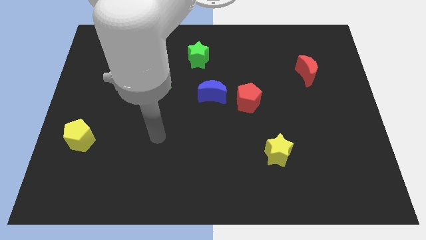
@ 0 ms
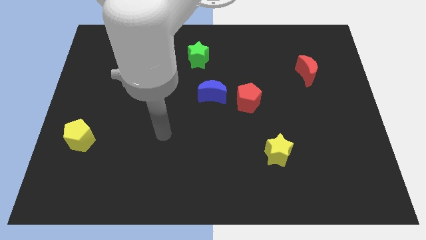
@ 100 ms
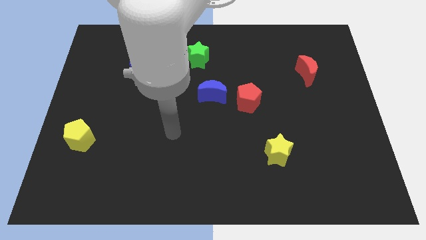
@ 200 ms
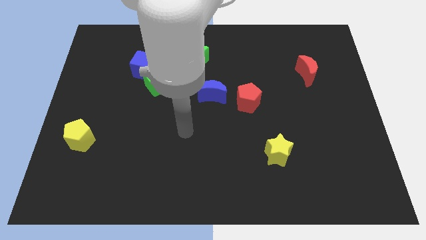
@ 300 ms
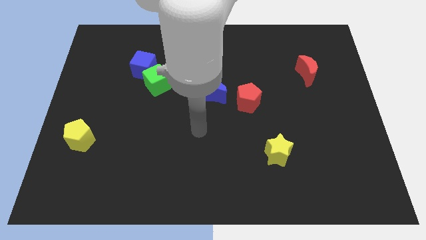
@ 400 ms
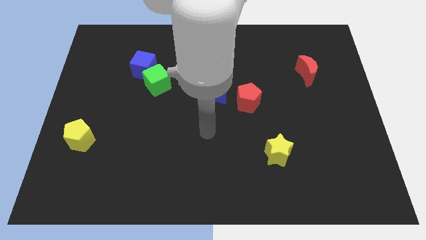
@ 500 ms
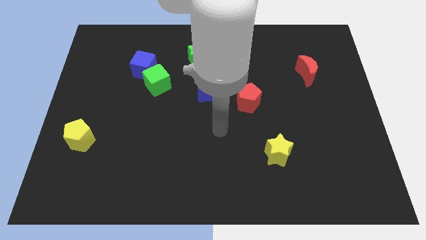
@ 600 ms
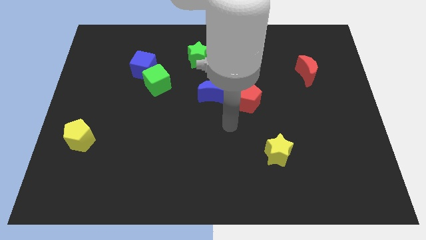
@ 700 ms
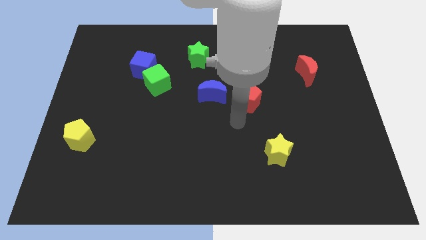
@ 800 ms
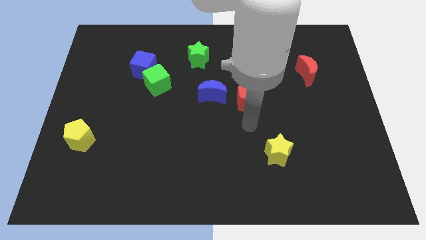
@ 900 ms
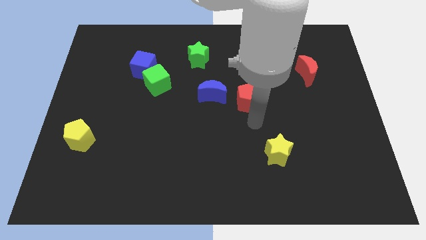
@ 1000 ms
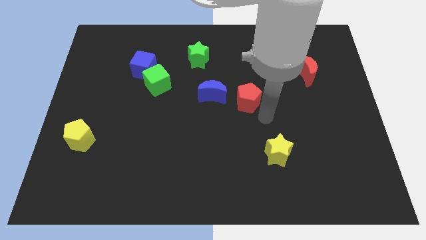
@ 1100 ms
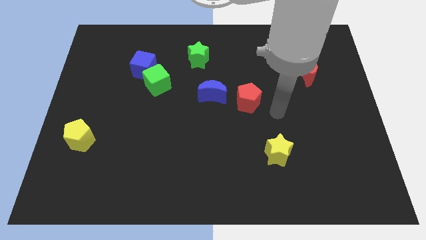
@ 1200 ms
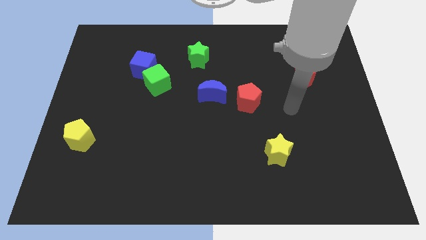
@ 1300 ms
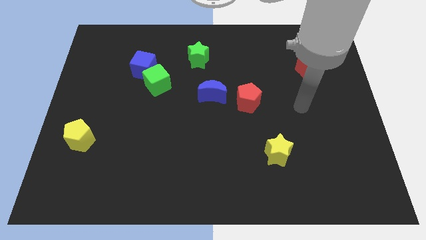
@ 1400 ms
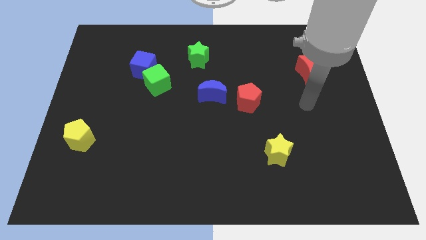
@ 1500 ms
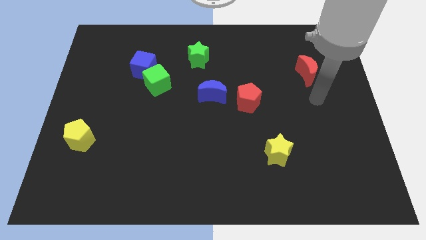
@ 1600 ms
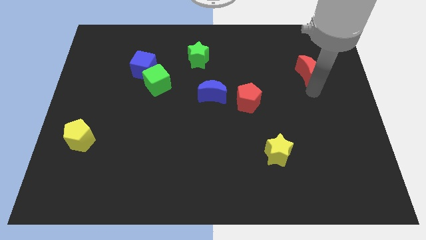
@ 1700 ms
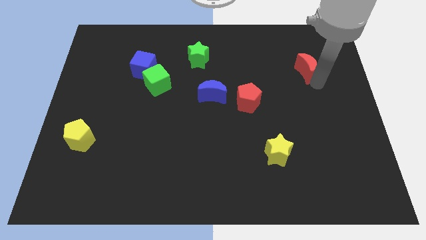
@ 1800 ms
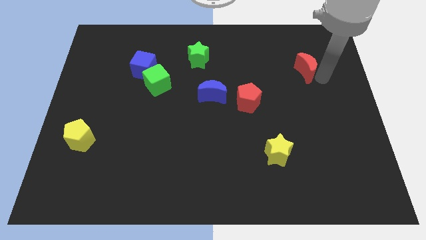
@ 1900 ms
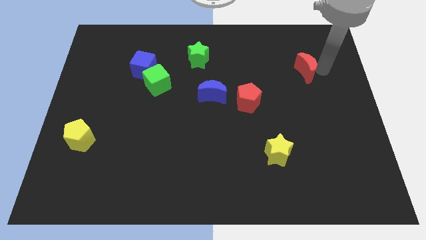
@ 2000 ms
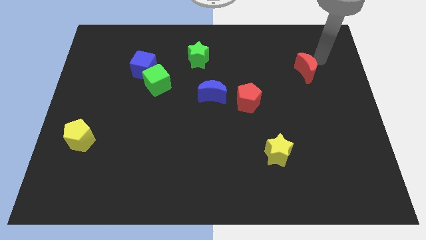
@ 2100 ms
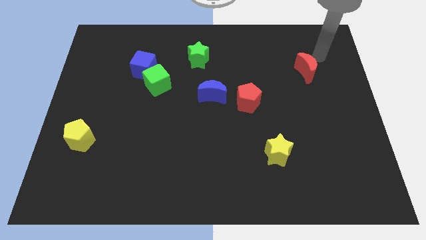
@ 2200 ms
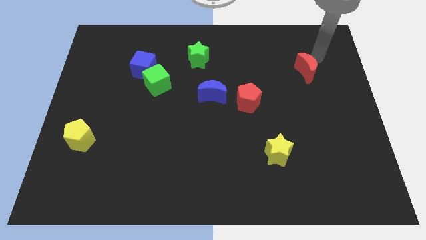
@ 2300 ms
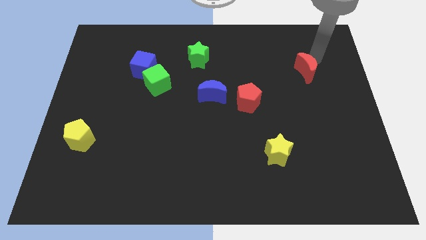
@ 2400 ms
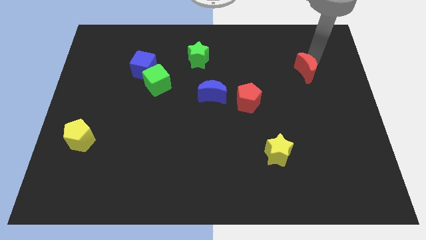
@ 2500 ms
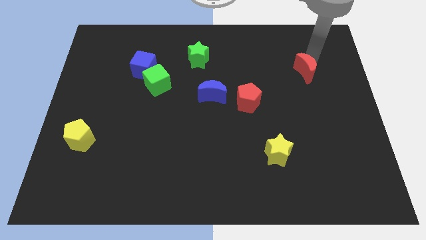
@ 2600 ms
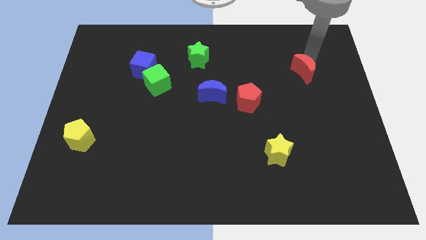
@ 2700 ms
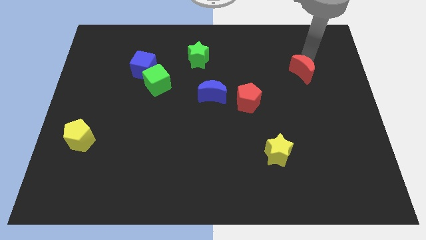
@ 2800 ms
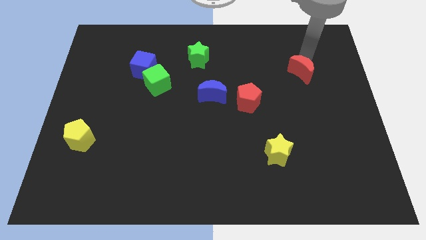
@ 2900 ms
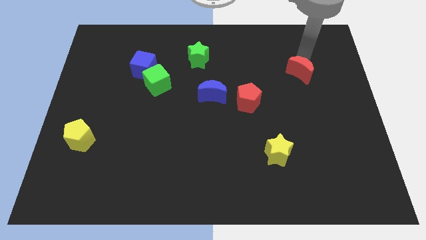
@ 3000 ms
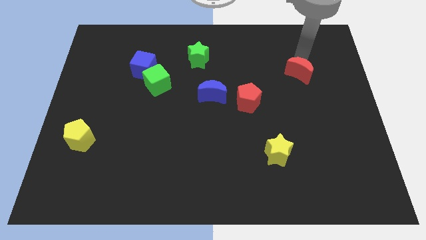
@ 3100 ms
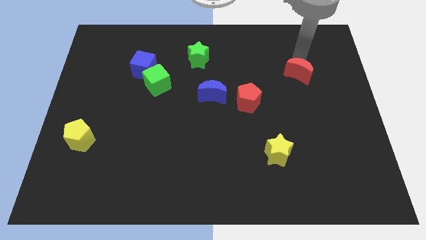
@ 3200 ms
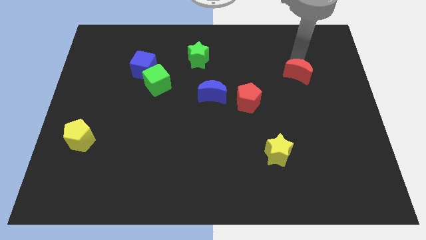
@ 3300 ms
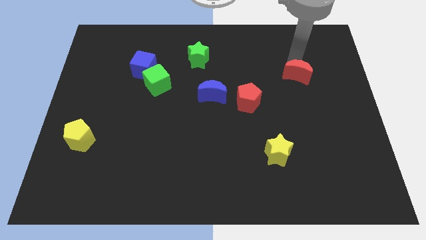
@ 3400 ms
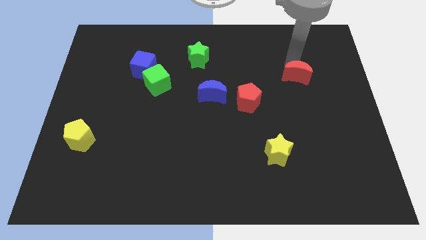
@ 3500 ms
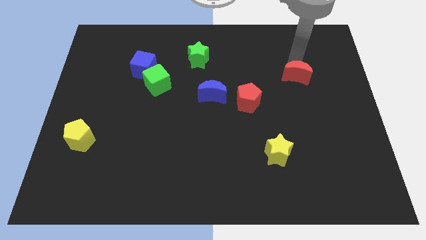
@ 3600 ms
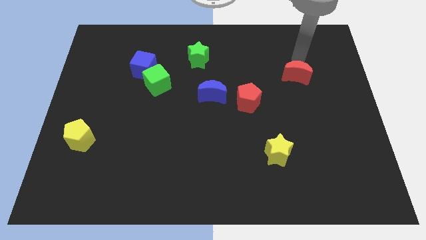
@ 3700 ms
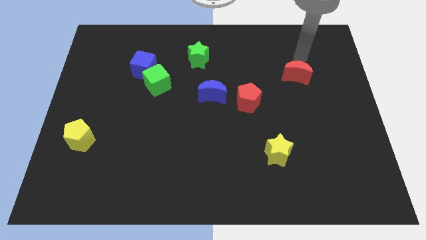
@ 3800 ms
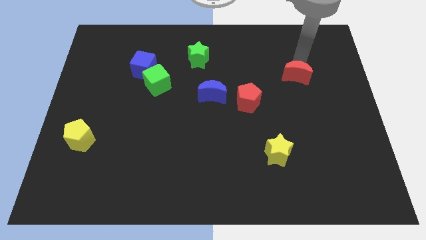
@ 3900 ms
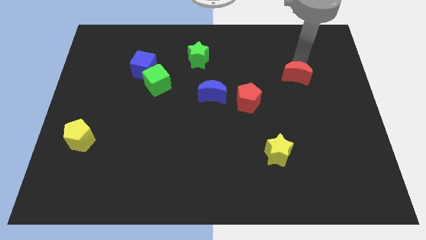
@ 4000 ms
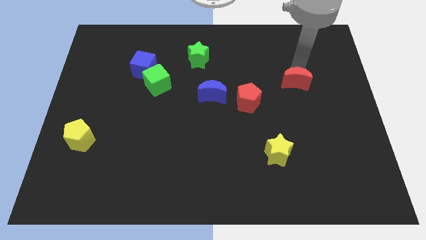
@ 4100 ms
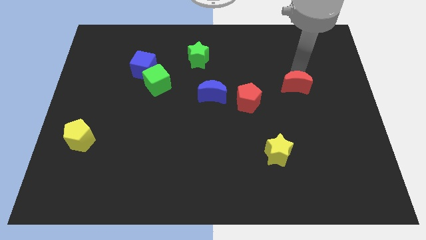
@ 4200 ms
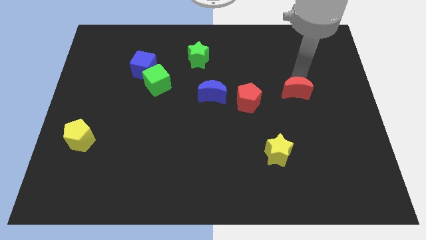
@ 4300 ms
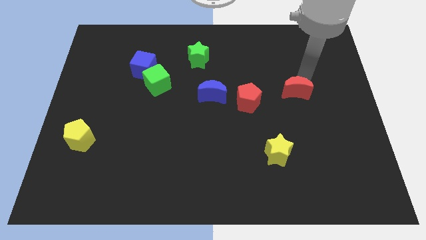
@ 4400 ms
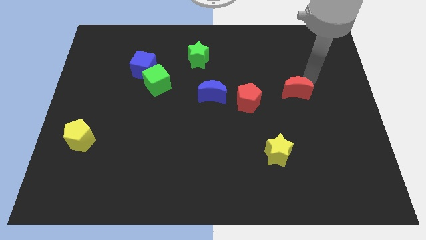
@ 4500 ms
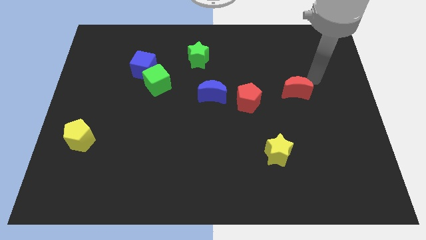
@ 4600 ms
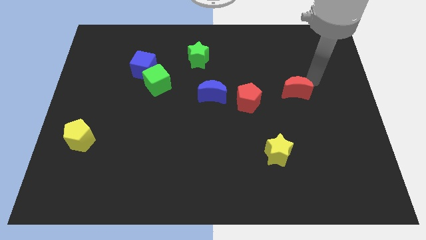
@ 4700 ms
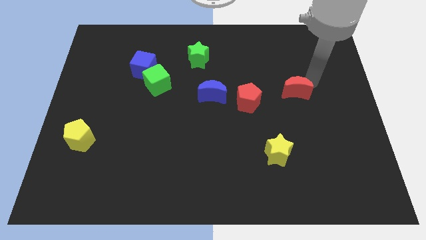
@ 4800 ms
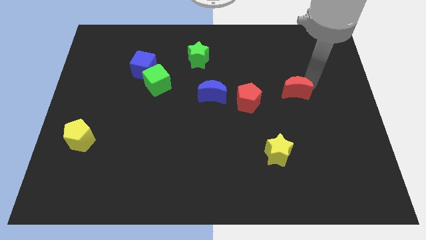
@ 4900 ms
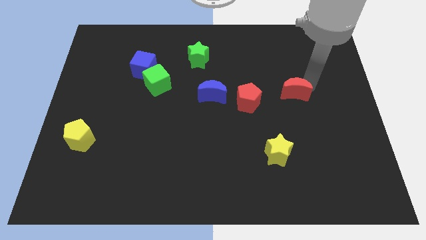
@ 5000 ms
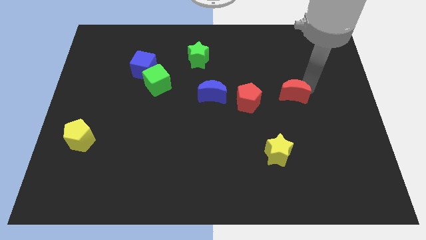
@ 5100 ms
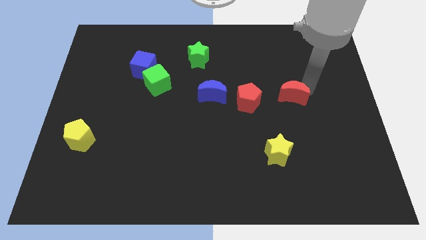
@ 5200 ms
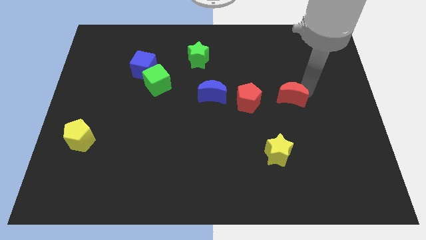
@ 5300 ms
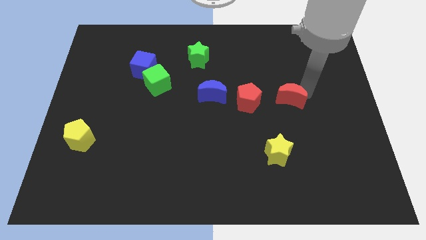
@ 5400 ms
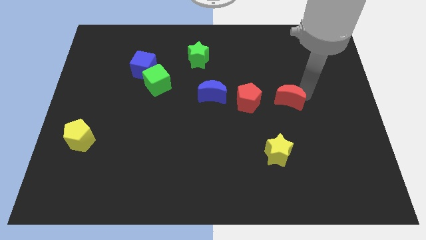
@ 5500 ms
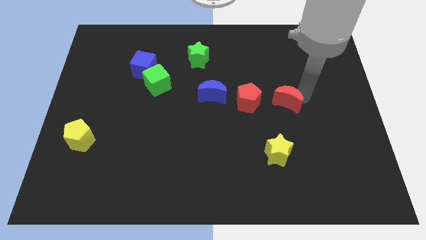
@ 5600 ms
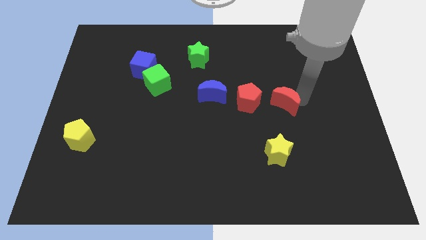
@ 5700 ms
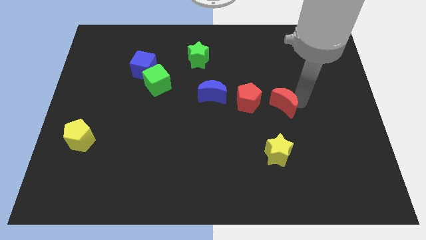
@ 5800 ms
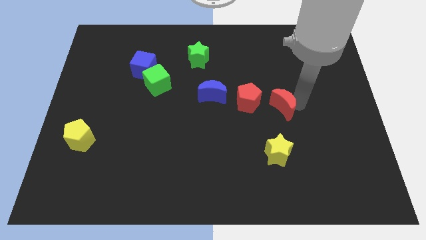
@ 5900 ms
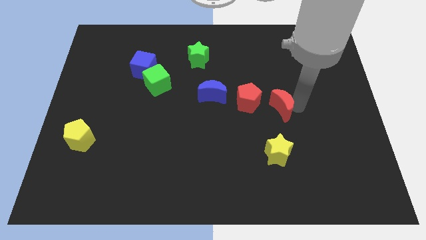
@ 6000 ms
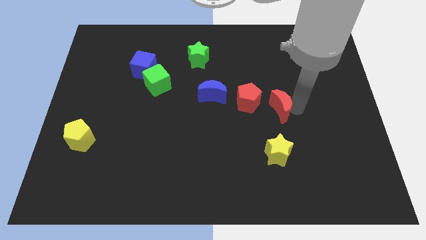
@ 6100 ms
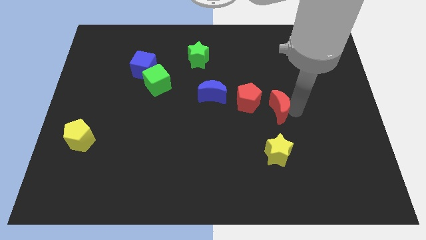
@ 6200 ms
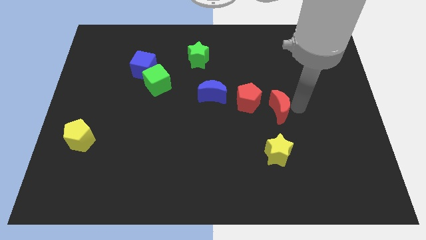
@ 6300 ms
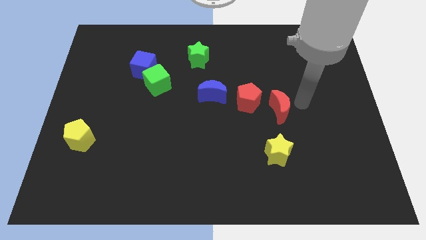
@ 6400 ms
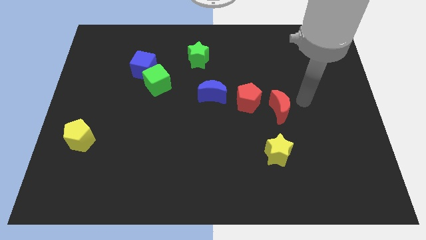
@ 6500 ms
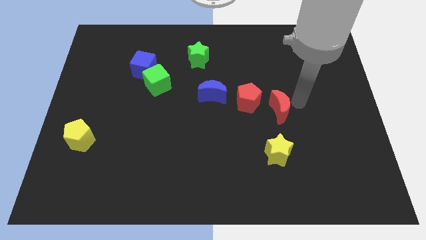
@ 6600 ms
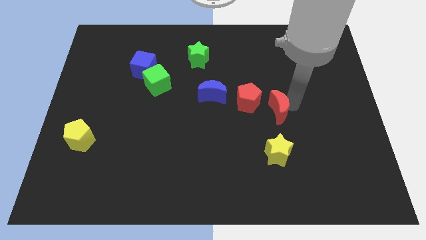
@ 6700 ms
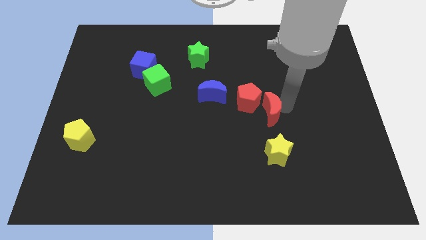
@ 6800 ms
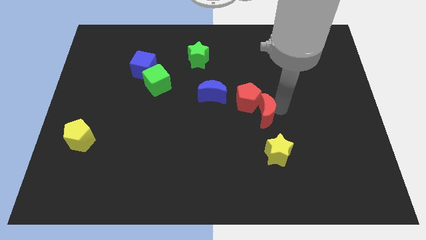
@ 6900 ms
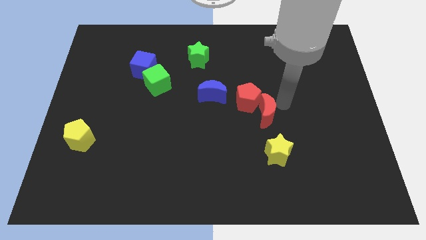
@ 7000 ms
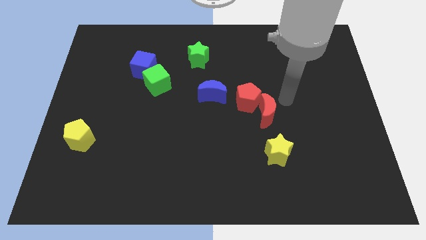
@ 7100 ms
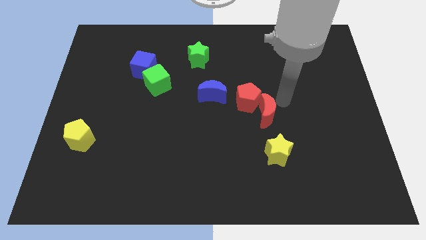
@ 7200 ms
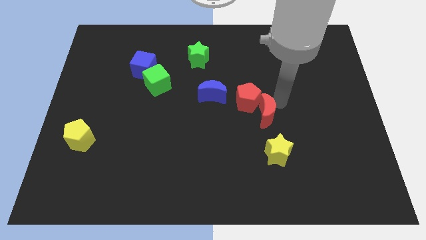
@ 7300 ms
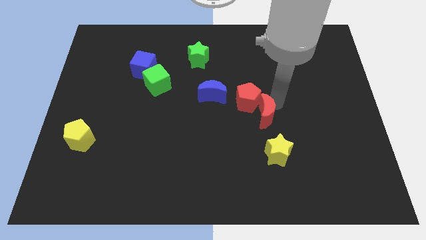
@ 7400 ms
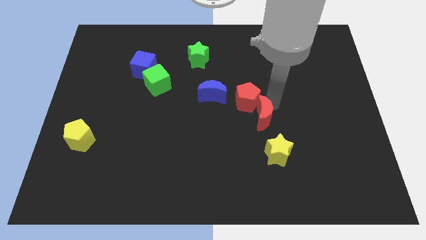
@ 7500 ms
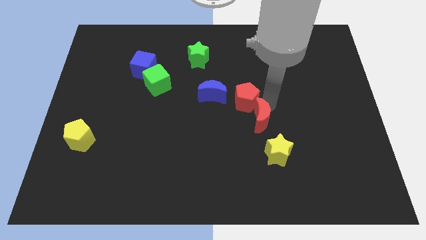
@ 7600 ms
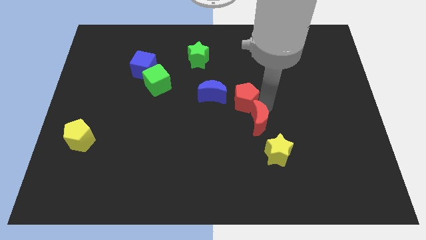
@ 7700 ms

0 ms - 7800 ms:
move the red moon downwards and then left

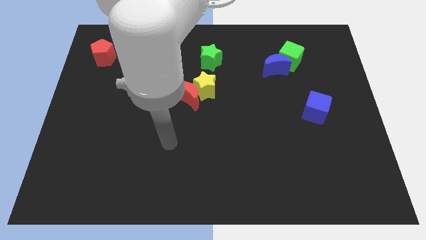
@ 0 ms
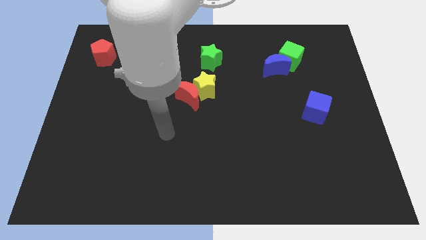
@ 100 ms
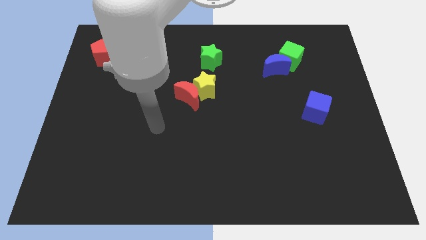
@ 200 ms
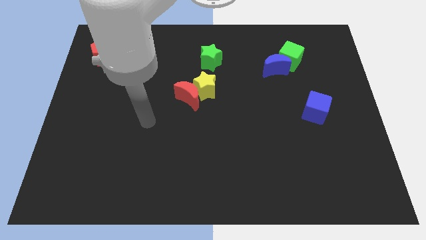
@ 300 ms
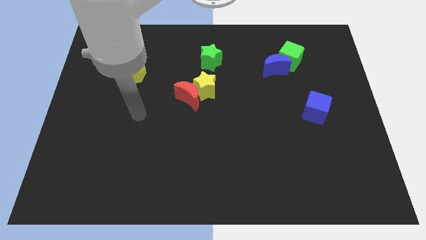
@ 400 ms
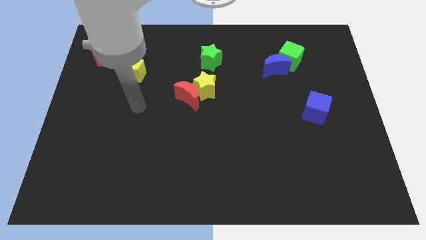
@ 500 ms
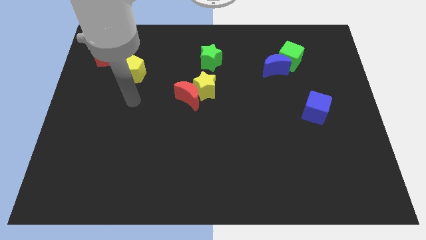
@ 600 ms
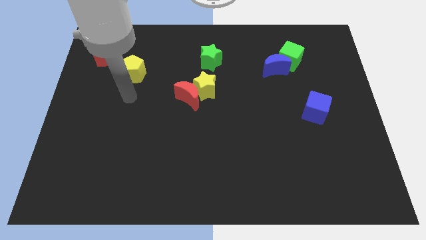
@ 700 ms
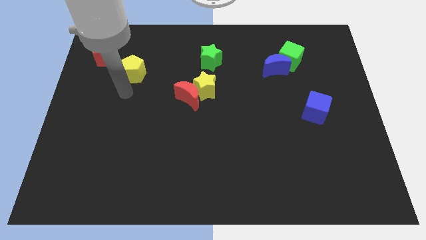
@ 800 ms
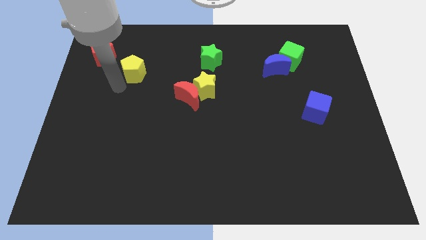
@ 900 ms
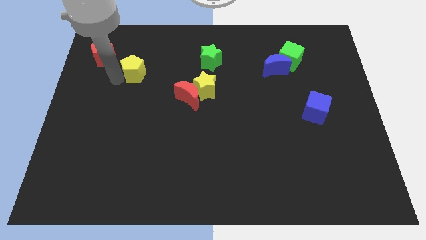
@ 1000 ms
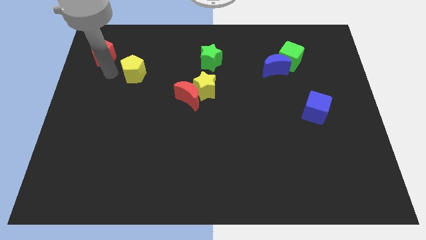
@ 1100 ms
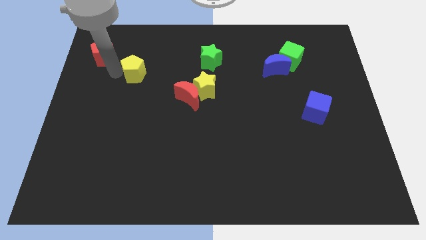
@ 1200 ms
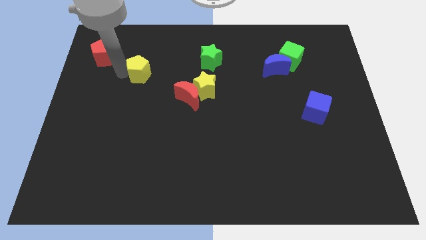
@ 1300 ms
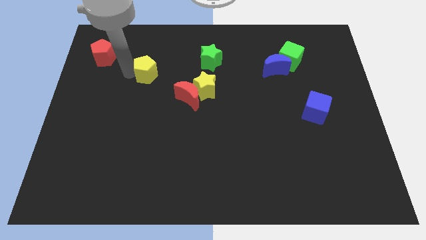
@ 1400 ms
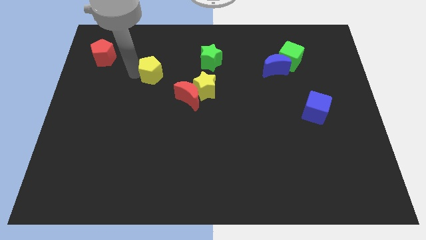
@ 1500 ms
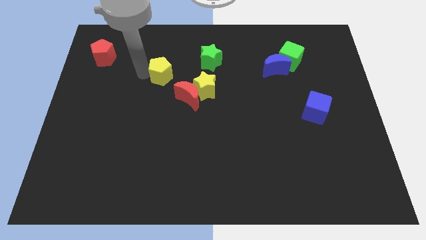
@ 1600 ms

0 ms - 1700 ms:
slide the yellow pentagon a bit right
